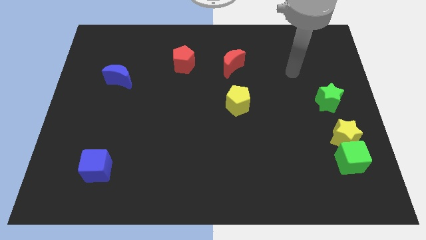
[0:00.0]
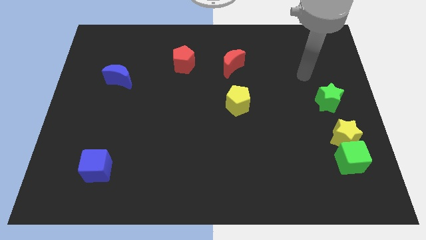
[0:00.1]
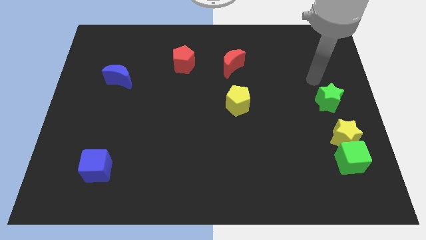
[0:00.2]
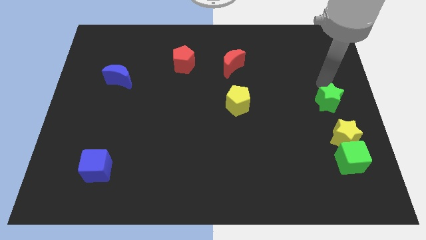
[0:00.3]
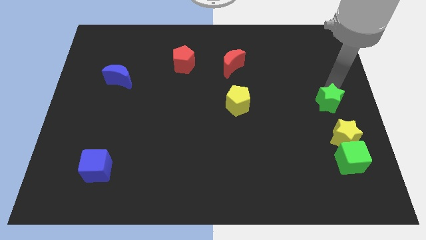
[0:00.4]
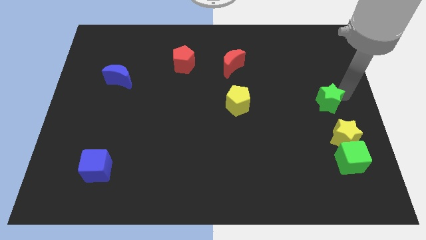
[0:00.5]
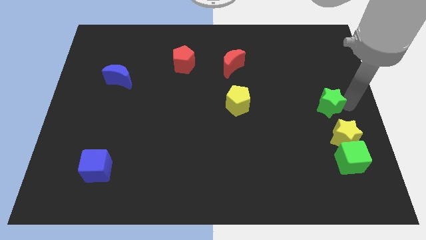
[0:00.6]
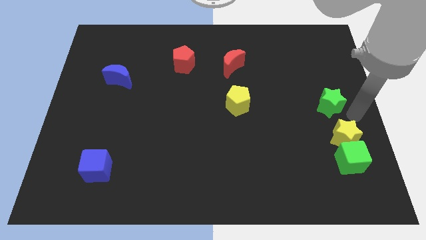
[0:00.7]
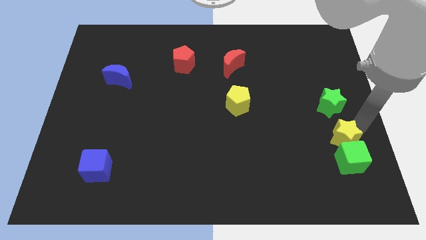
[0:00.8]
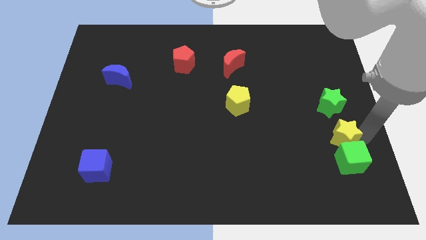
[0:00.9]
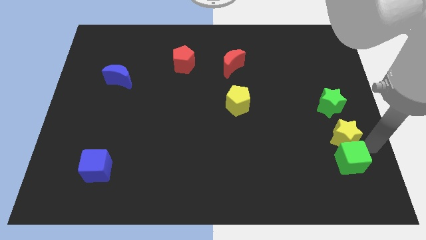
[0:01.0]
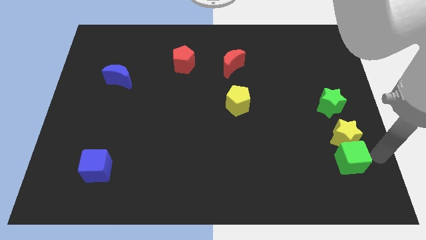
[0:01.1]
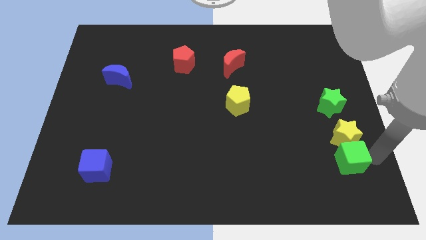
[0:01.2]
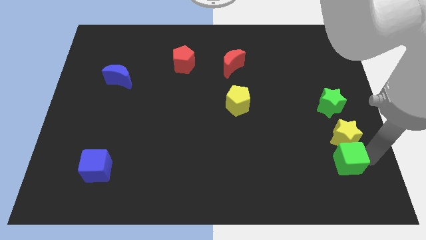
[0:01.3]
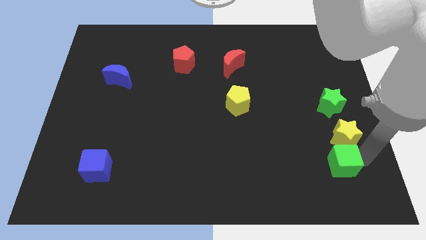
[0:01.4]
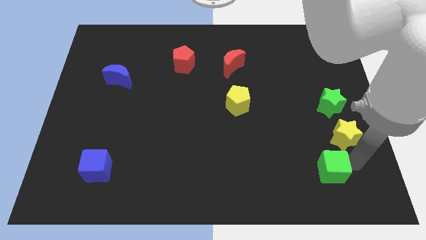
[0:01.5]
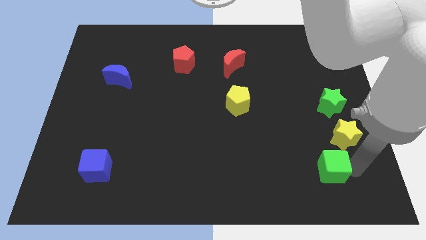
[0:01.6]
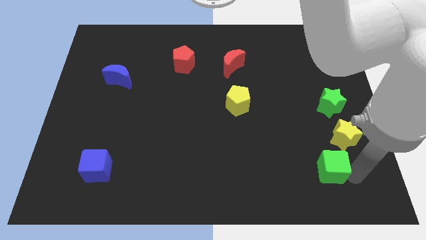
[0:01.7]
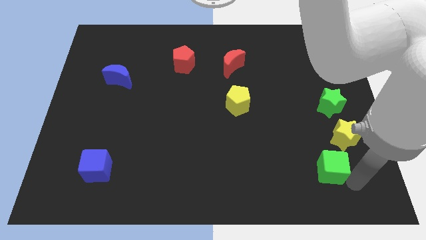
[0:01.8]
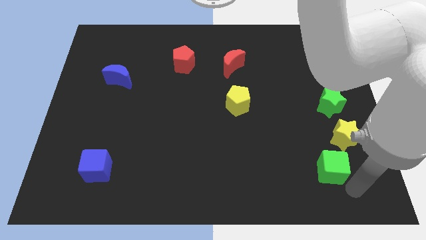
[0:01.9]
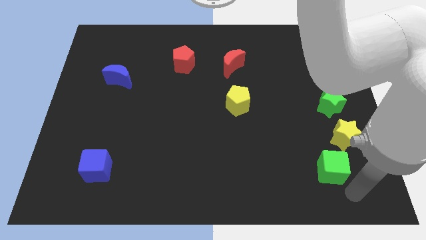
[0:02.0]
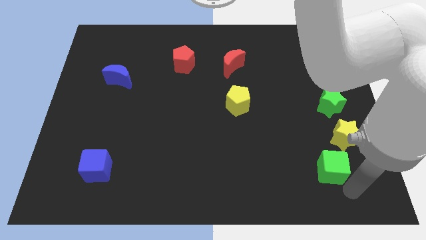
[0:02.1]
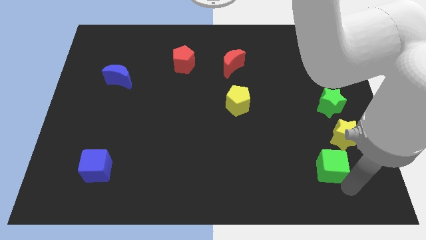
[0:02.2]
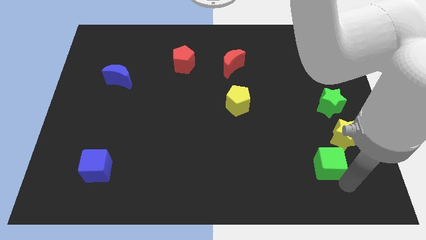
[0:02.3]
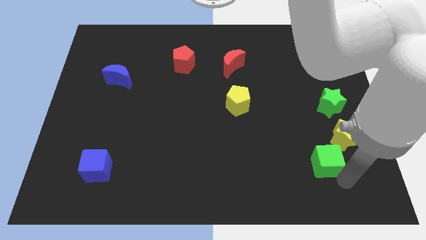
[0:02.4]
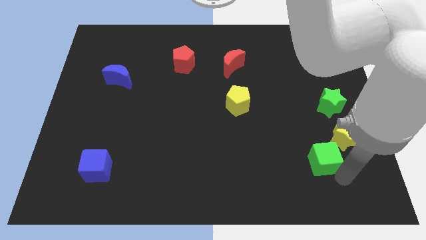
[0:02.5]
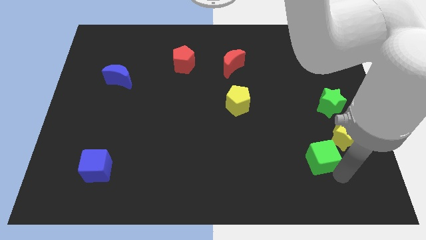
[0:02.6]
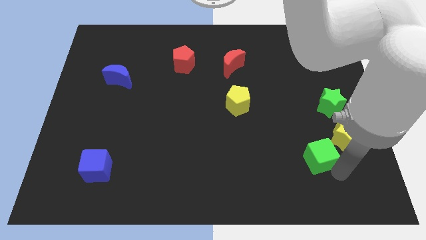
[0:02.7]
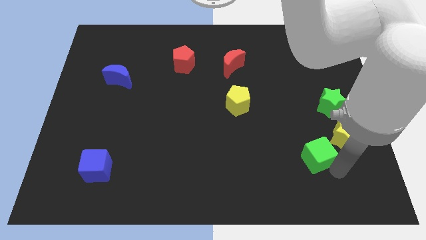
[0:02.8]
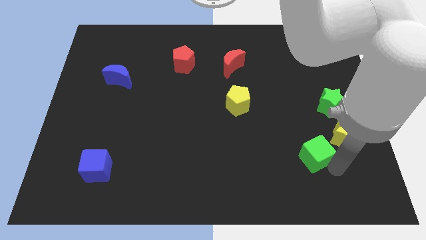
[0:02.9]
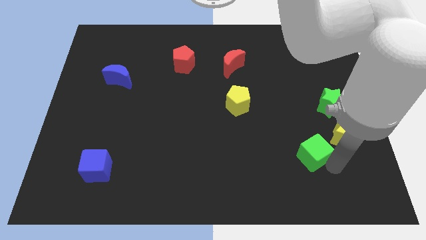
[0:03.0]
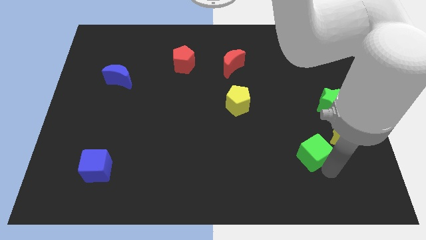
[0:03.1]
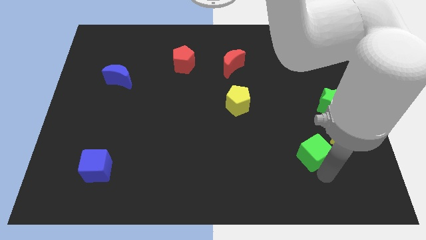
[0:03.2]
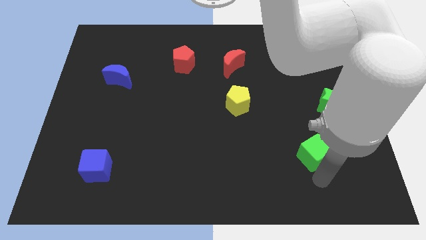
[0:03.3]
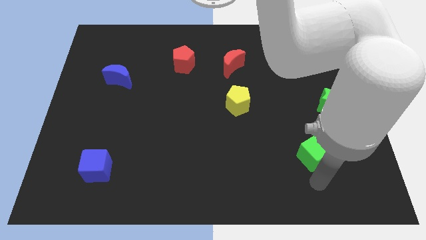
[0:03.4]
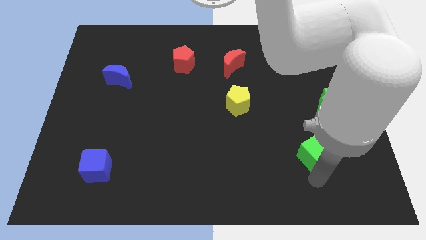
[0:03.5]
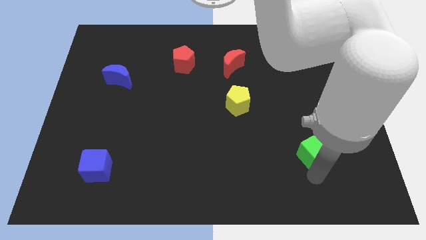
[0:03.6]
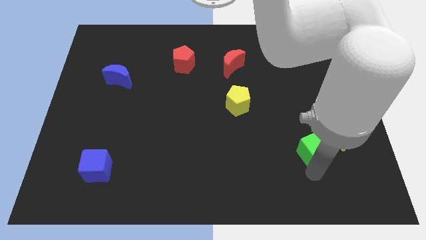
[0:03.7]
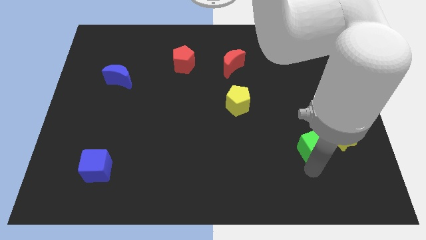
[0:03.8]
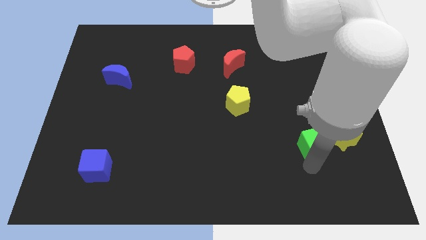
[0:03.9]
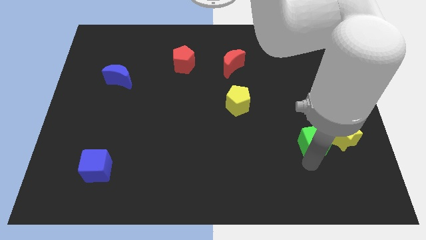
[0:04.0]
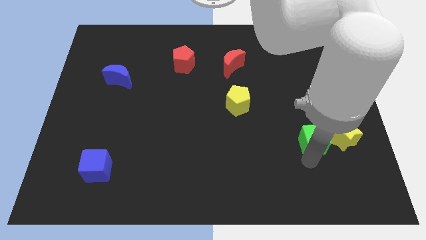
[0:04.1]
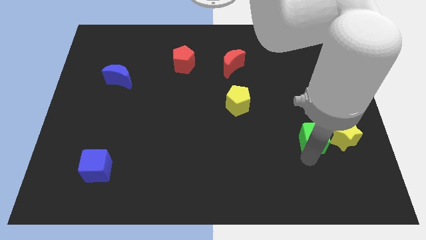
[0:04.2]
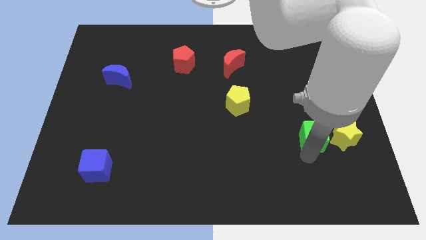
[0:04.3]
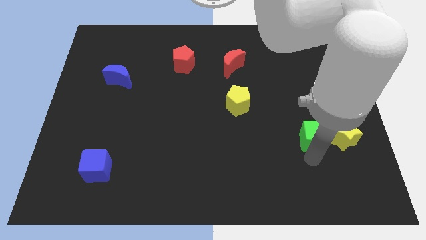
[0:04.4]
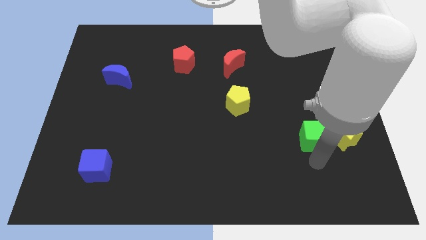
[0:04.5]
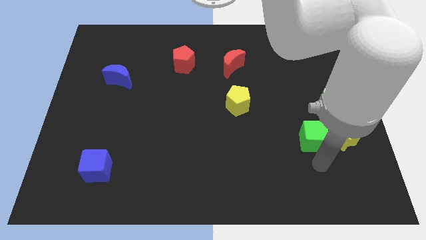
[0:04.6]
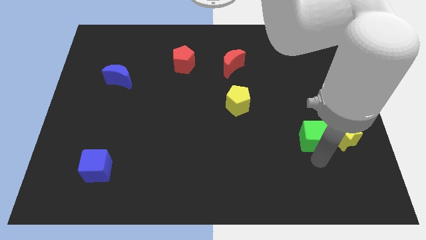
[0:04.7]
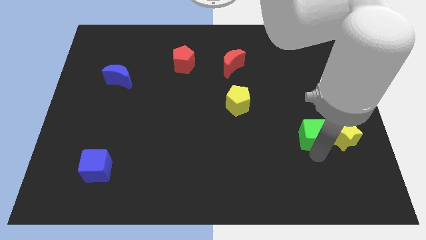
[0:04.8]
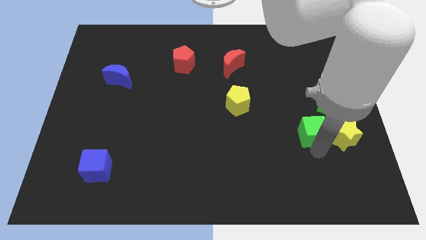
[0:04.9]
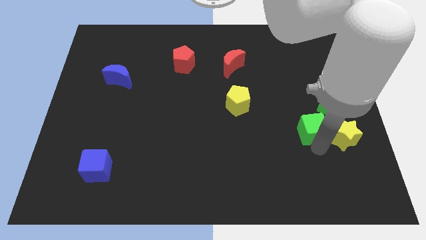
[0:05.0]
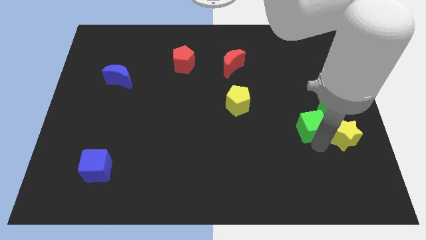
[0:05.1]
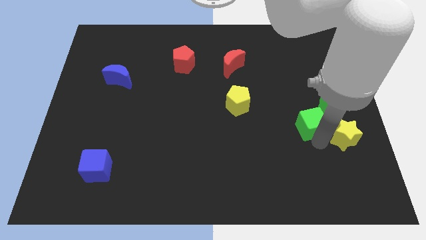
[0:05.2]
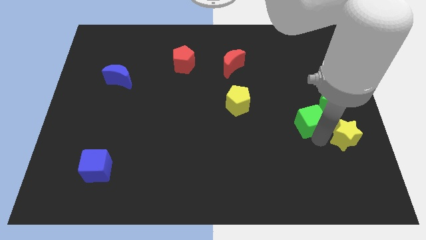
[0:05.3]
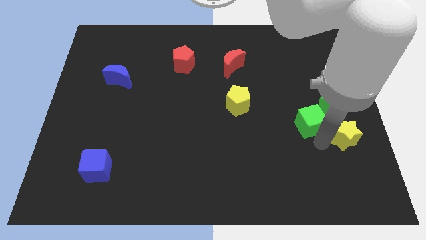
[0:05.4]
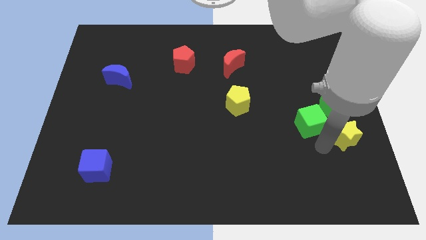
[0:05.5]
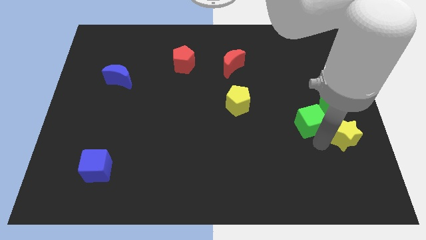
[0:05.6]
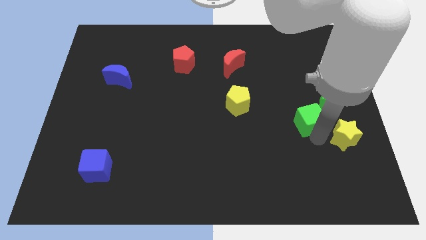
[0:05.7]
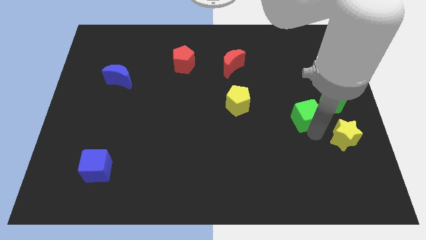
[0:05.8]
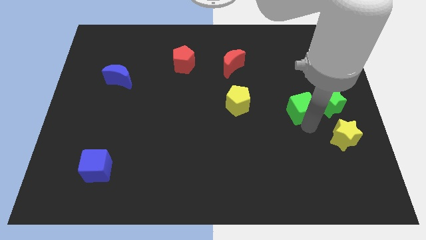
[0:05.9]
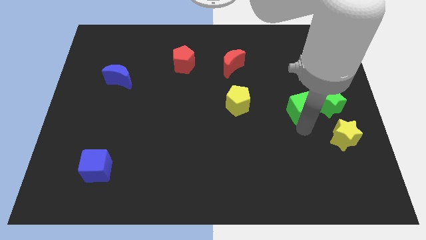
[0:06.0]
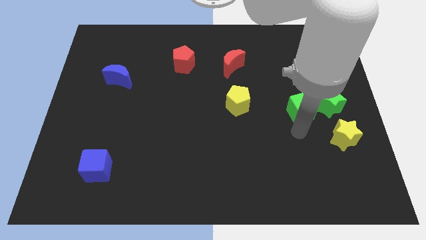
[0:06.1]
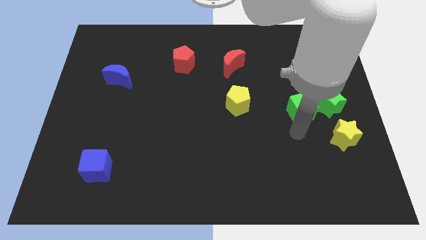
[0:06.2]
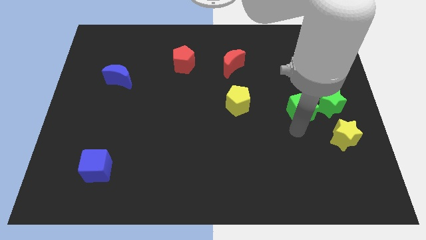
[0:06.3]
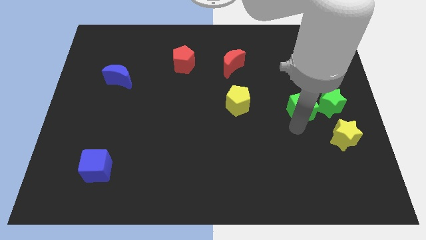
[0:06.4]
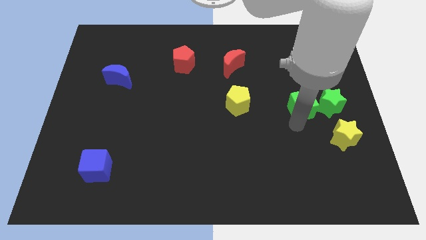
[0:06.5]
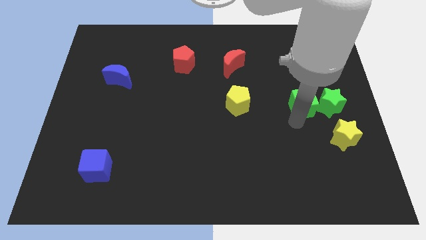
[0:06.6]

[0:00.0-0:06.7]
move the green cube to the top left side of the green star
